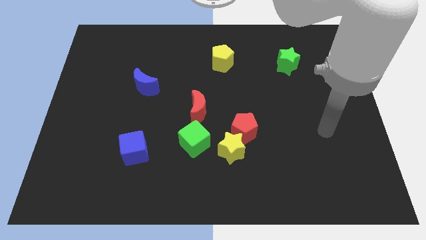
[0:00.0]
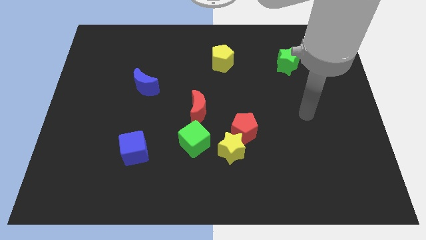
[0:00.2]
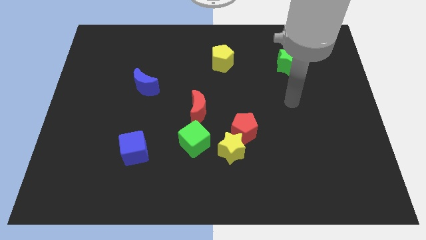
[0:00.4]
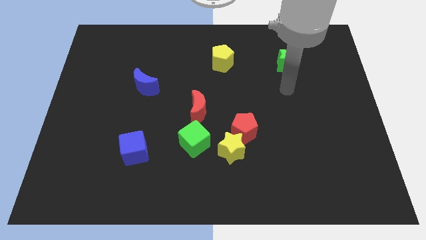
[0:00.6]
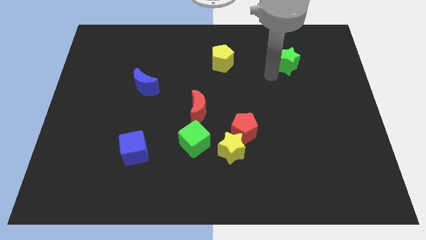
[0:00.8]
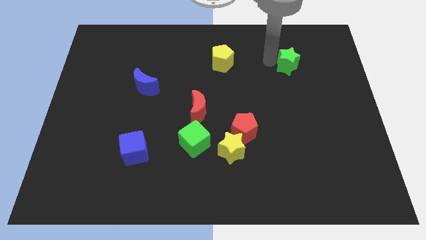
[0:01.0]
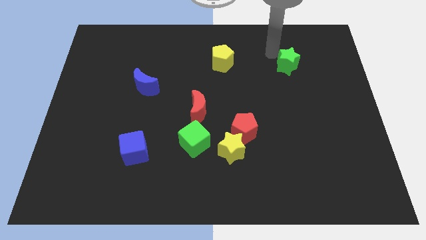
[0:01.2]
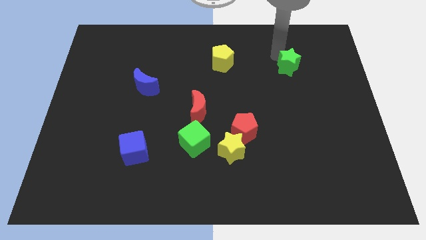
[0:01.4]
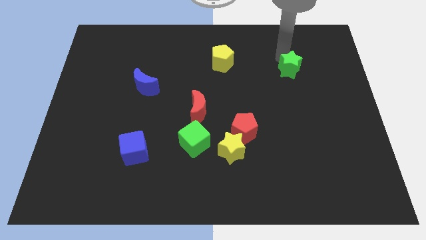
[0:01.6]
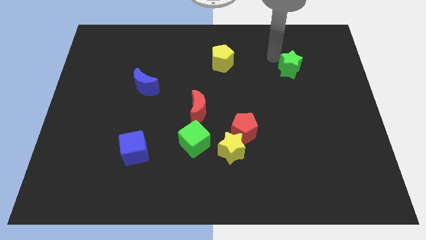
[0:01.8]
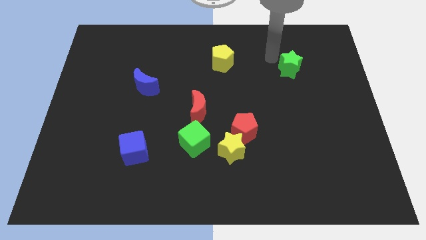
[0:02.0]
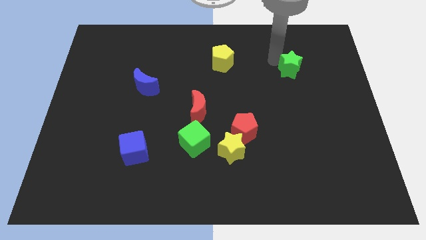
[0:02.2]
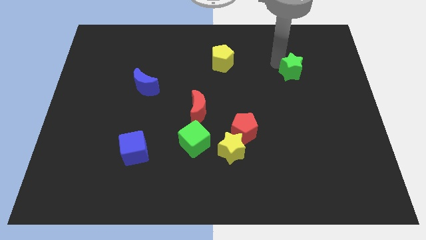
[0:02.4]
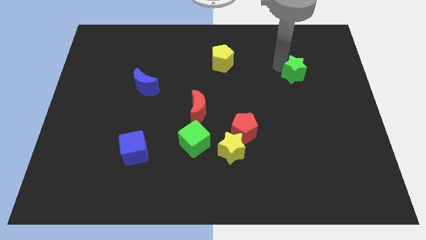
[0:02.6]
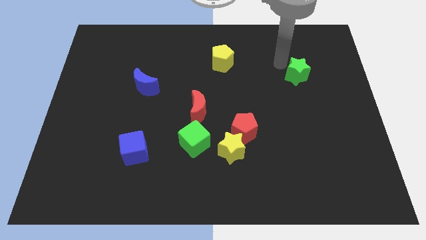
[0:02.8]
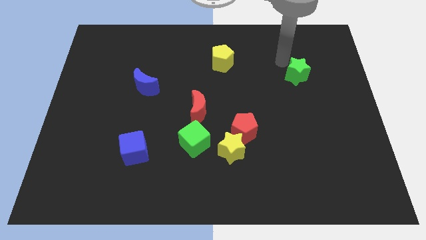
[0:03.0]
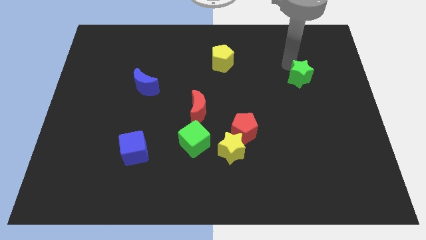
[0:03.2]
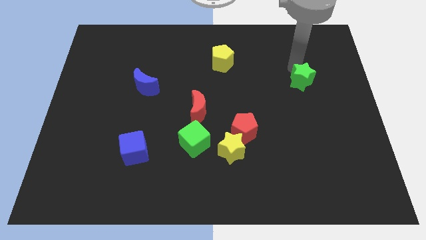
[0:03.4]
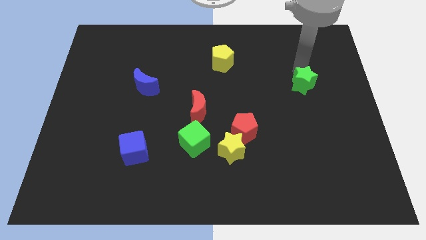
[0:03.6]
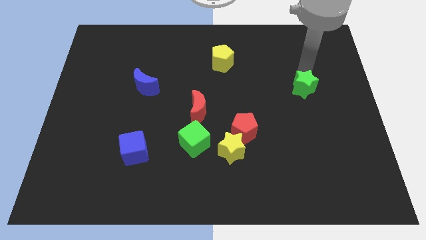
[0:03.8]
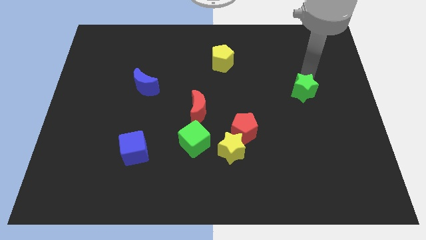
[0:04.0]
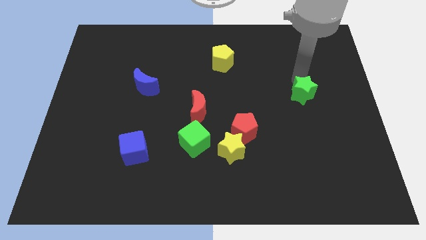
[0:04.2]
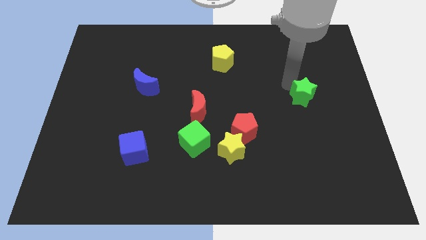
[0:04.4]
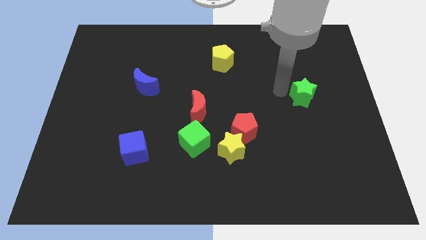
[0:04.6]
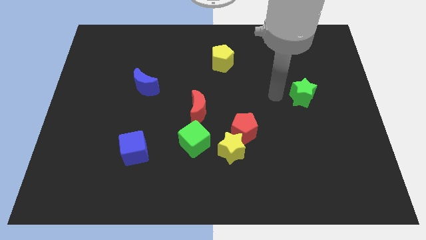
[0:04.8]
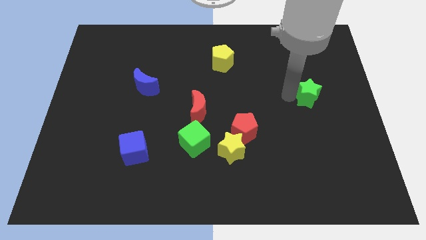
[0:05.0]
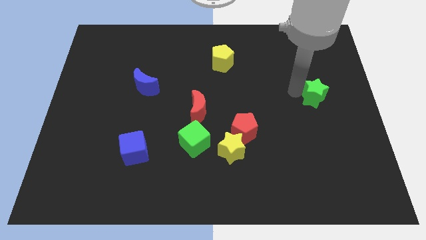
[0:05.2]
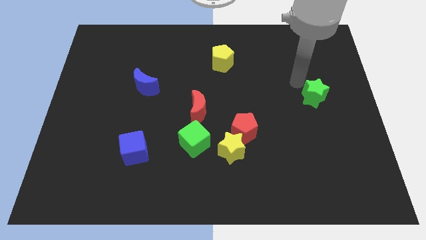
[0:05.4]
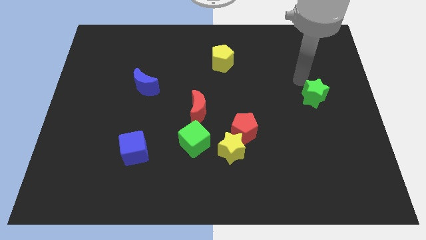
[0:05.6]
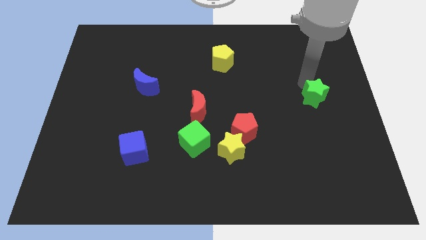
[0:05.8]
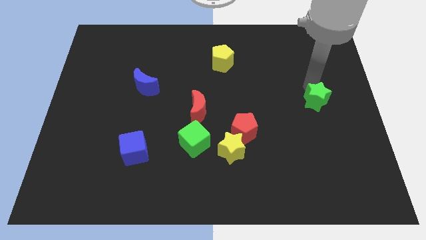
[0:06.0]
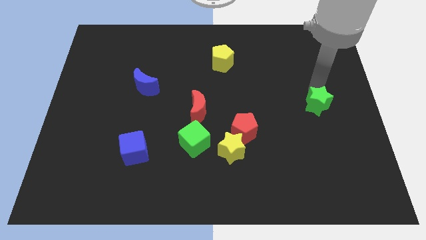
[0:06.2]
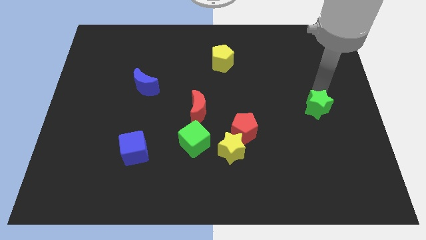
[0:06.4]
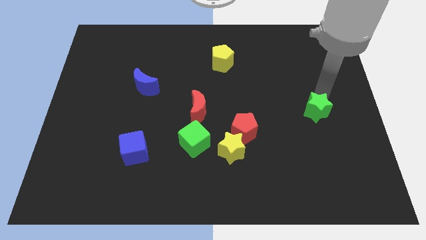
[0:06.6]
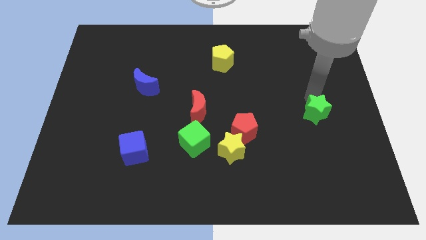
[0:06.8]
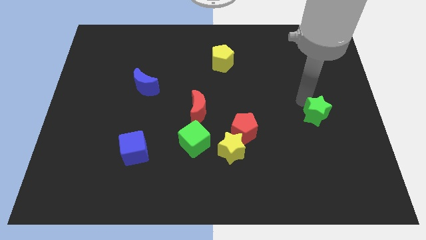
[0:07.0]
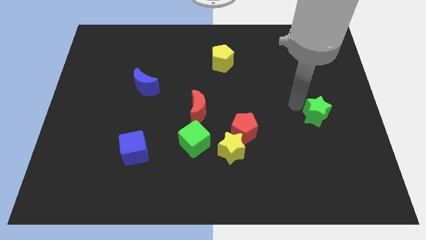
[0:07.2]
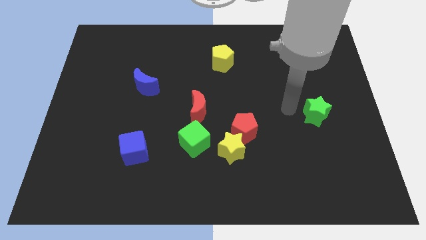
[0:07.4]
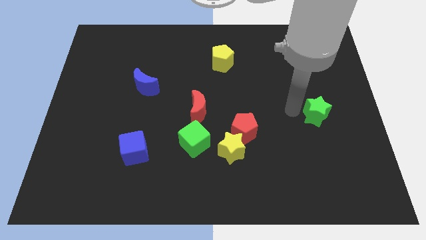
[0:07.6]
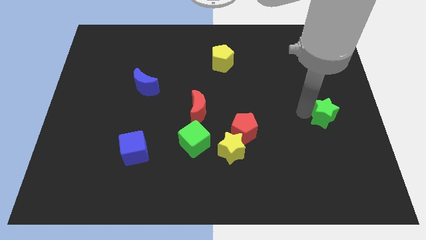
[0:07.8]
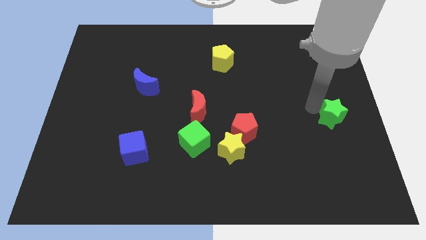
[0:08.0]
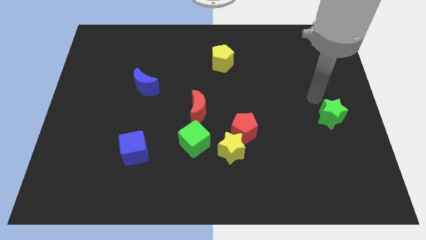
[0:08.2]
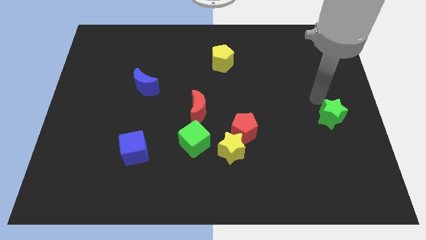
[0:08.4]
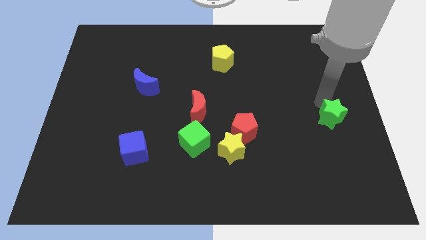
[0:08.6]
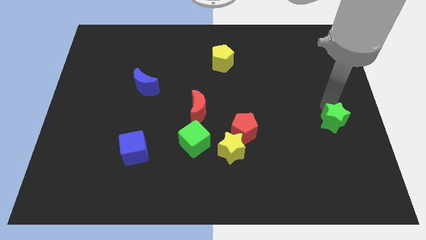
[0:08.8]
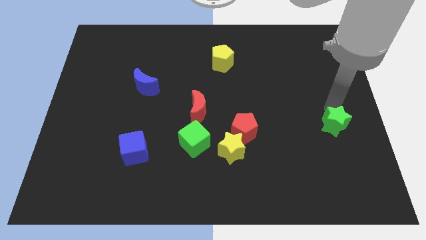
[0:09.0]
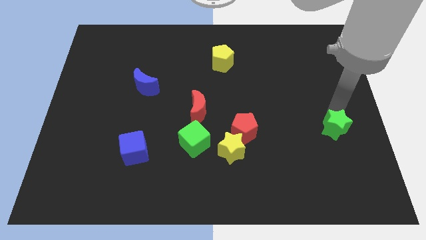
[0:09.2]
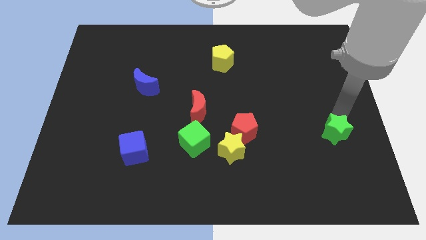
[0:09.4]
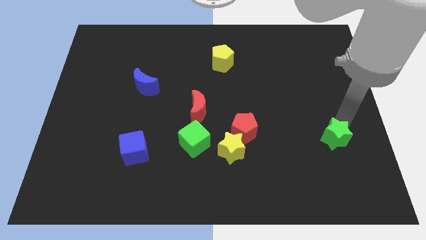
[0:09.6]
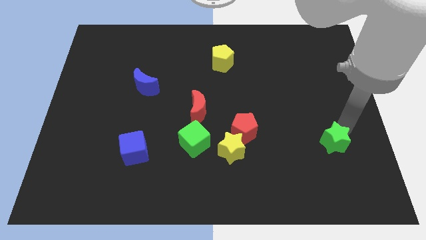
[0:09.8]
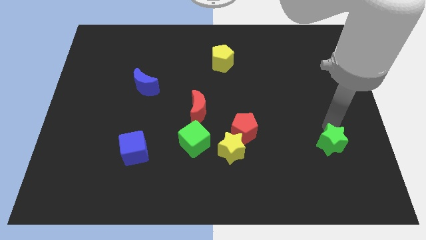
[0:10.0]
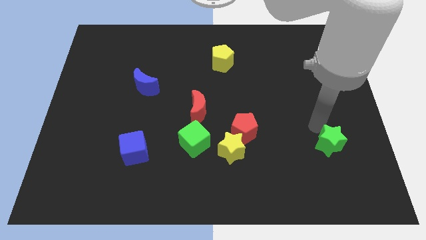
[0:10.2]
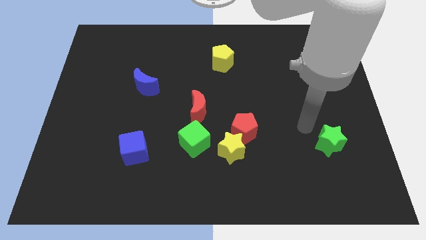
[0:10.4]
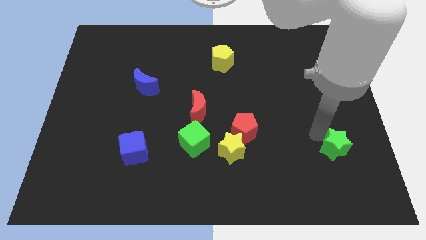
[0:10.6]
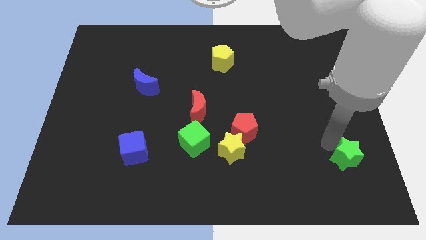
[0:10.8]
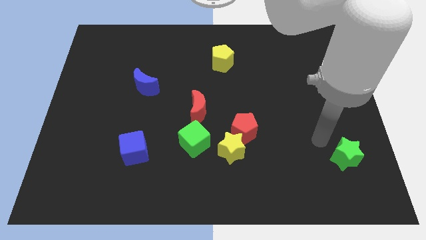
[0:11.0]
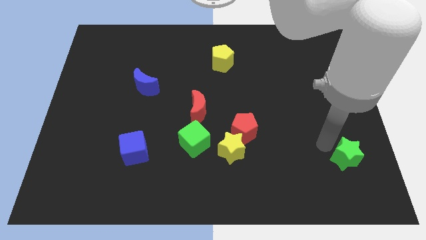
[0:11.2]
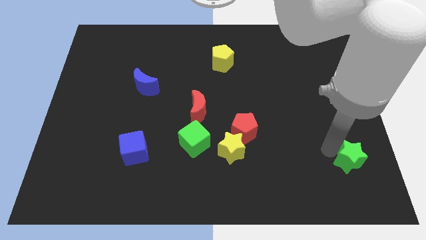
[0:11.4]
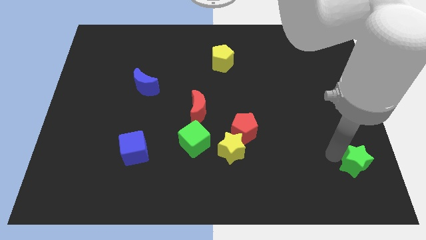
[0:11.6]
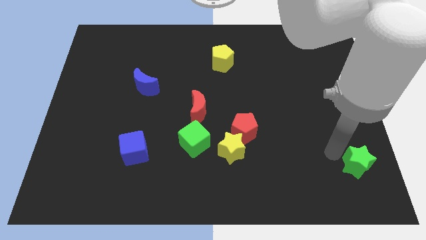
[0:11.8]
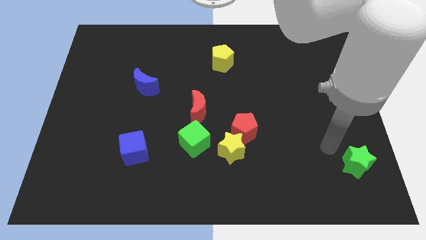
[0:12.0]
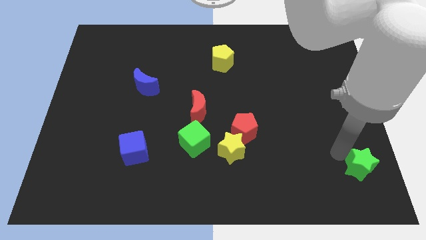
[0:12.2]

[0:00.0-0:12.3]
put the green star to the bottom right corner

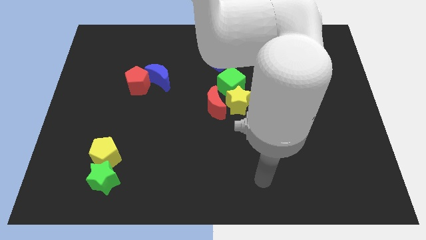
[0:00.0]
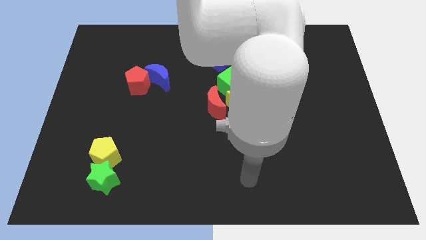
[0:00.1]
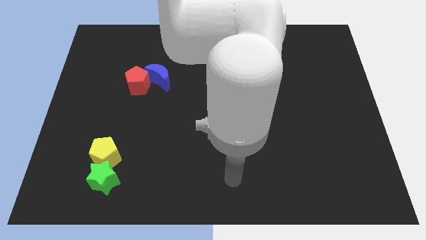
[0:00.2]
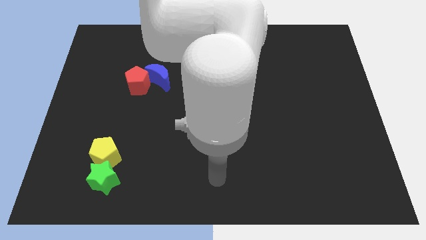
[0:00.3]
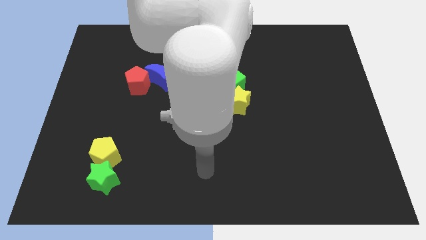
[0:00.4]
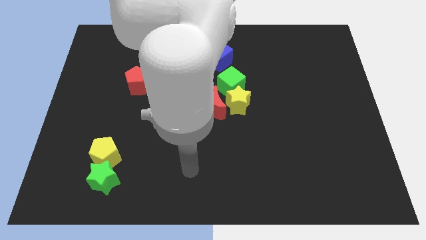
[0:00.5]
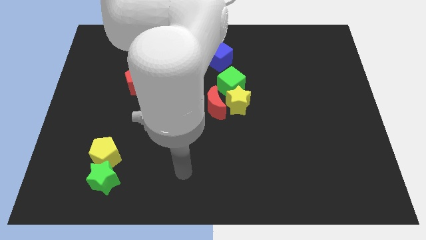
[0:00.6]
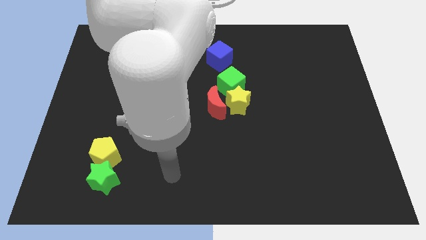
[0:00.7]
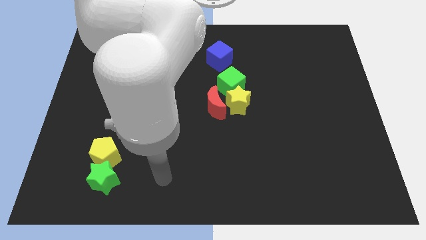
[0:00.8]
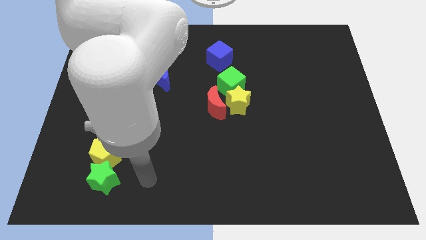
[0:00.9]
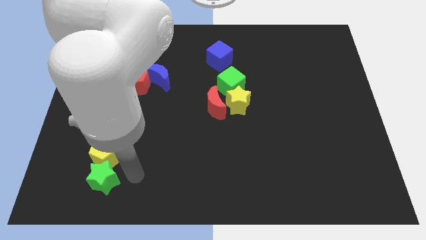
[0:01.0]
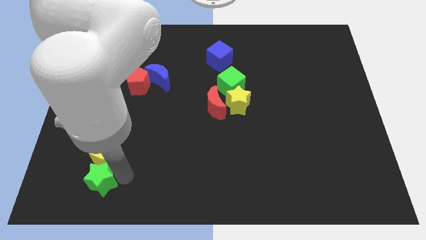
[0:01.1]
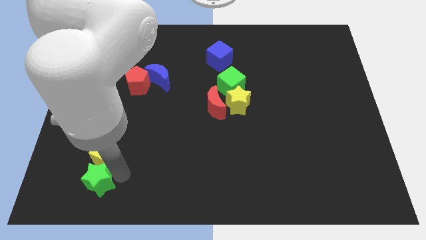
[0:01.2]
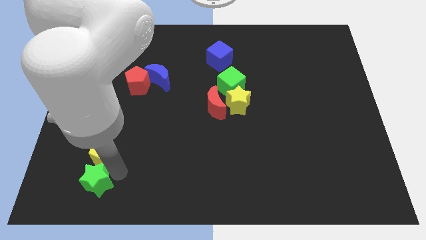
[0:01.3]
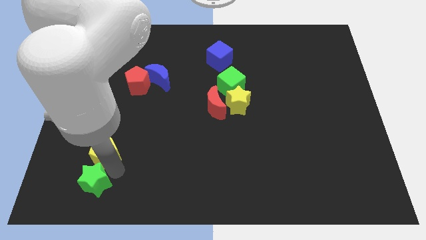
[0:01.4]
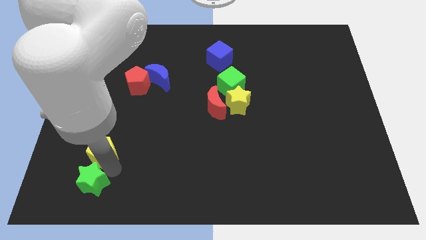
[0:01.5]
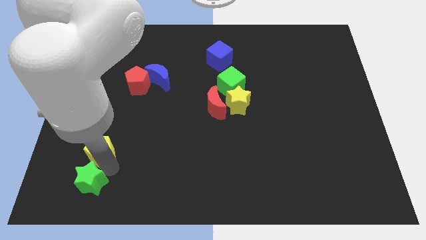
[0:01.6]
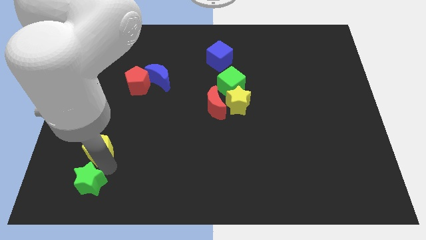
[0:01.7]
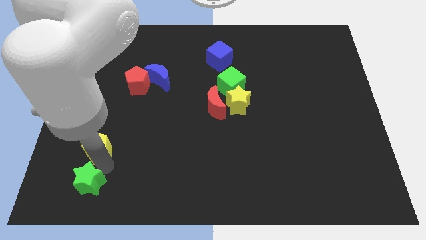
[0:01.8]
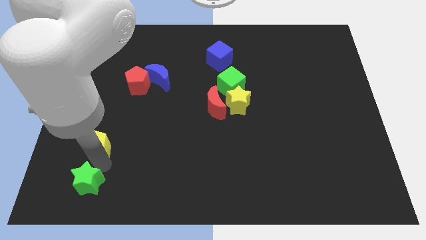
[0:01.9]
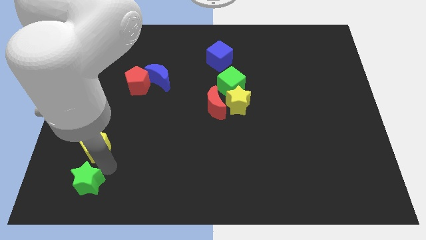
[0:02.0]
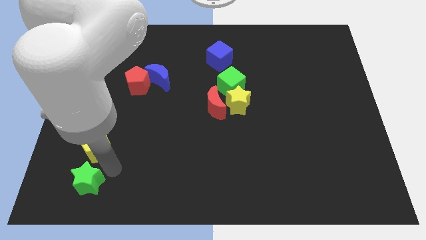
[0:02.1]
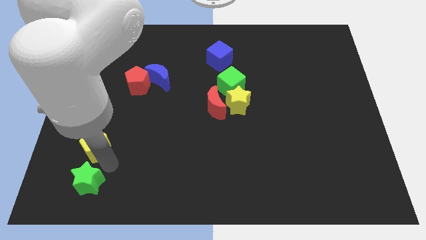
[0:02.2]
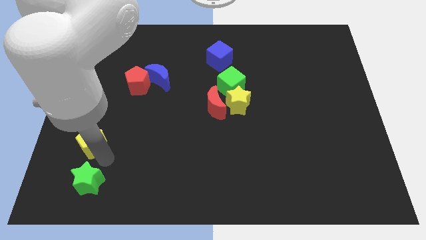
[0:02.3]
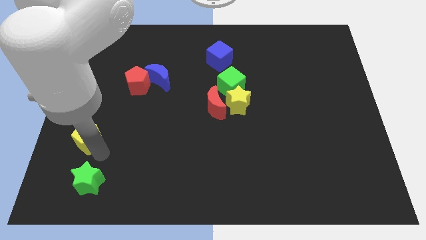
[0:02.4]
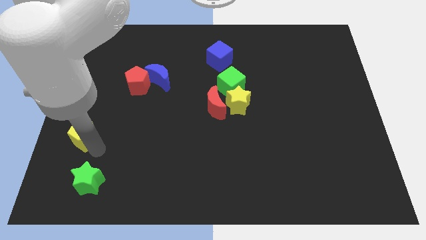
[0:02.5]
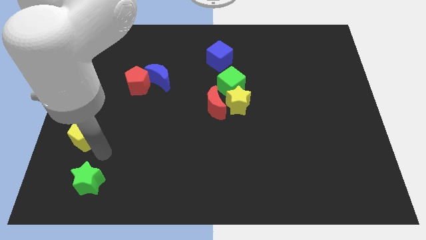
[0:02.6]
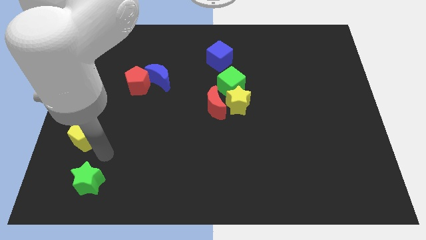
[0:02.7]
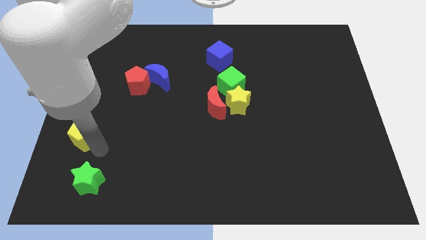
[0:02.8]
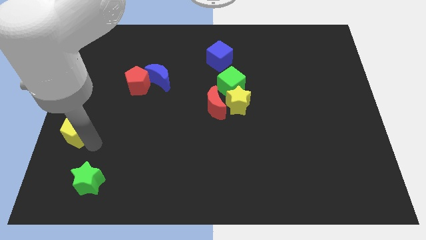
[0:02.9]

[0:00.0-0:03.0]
push the yellow pentagon to the left side of the board
